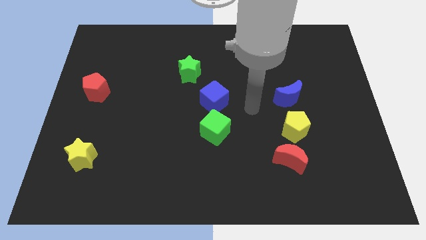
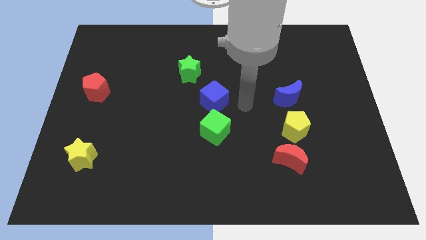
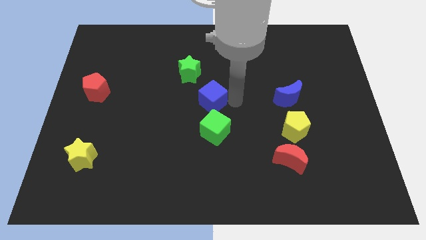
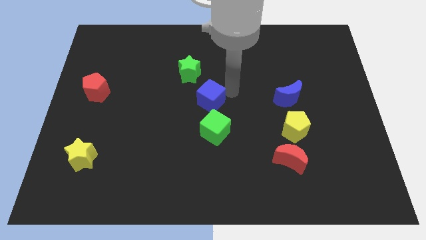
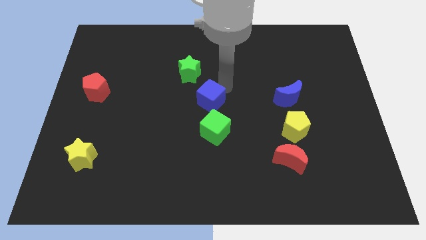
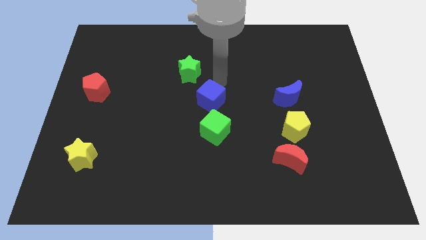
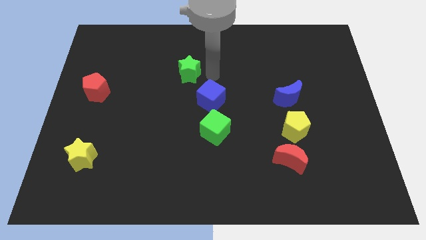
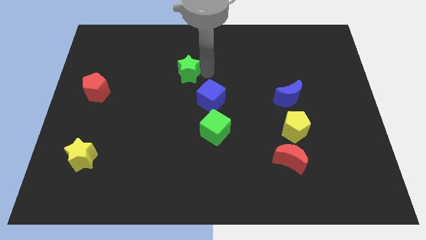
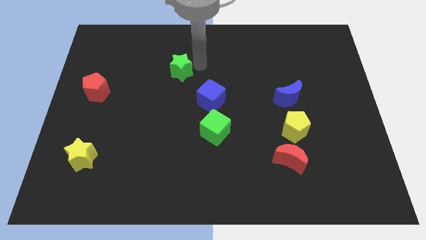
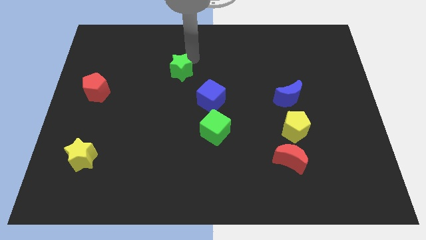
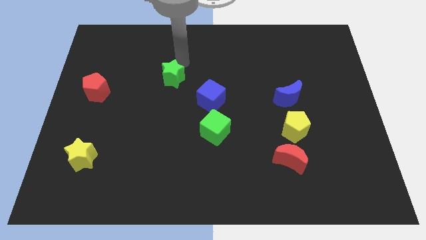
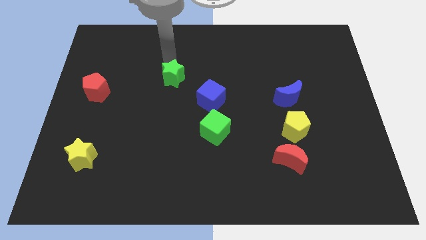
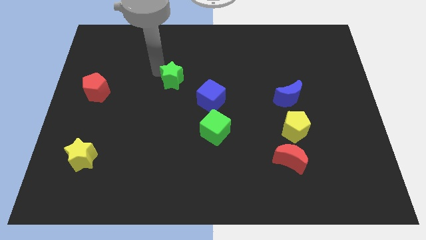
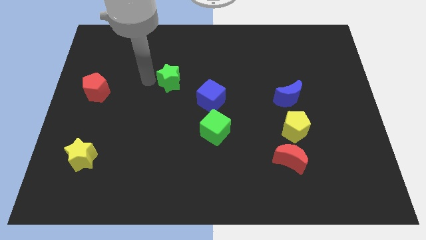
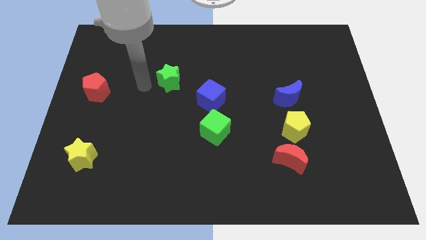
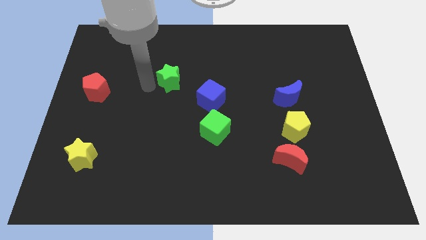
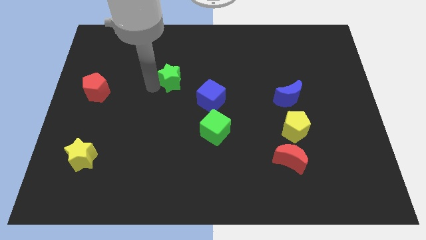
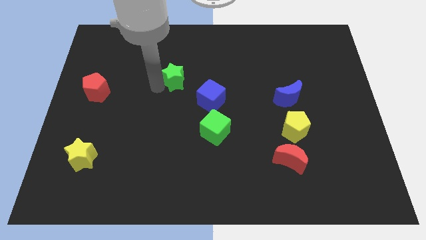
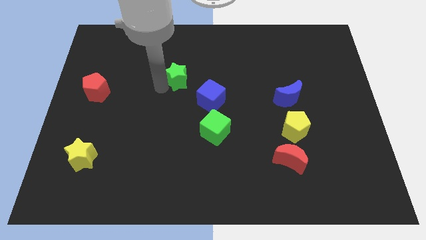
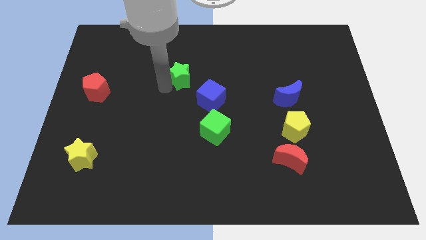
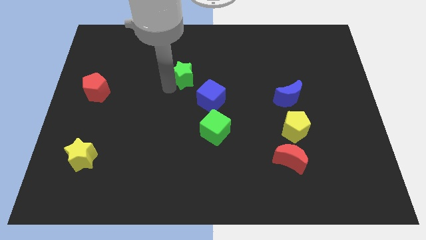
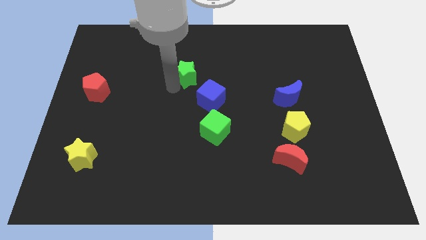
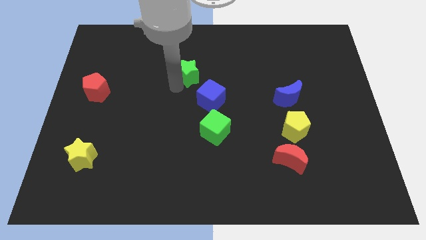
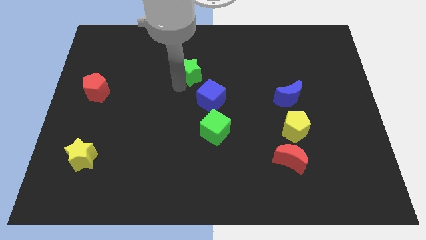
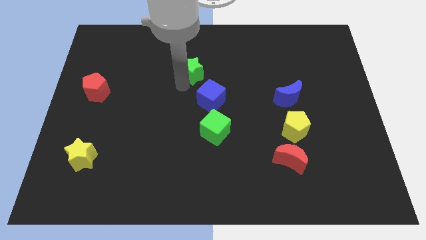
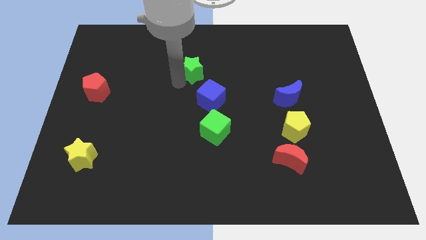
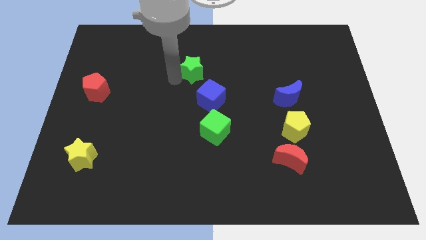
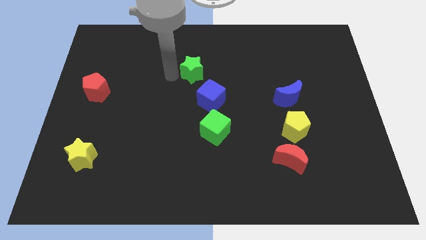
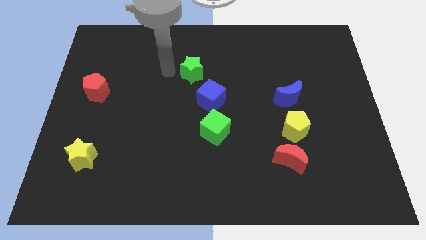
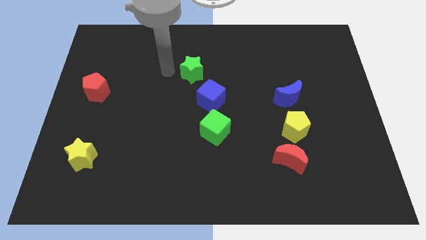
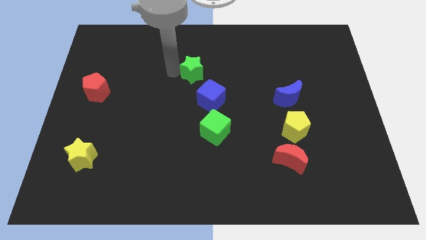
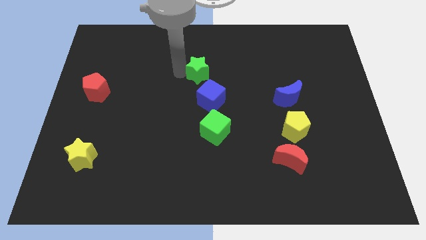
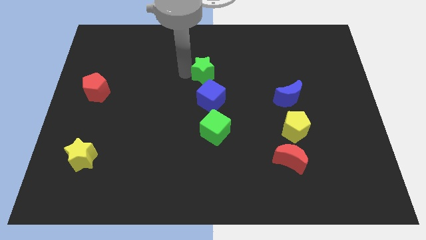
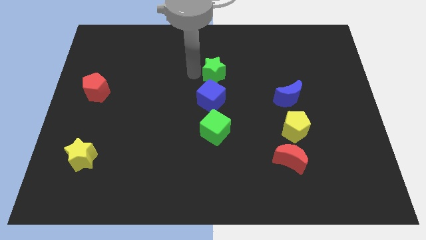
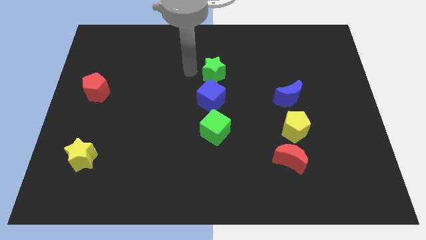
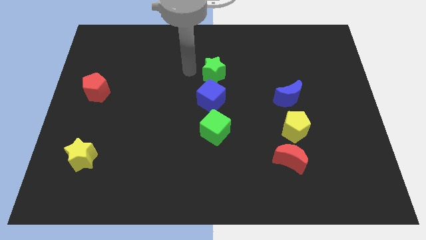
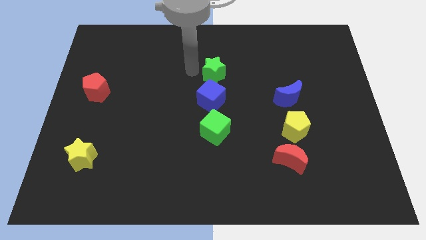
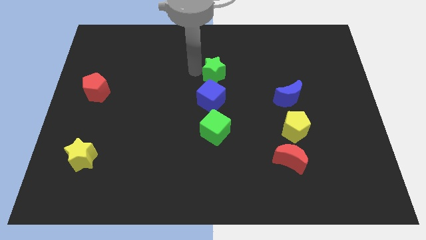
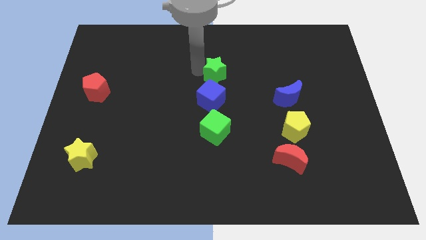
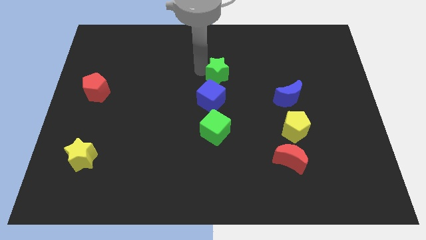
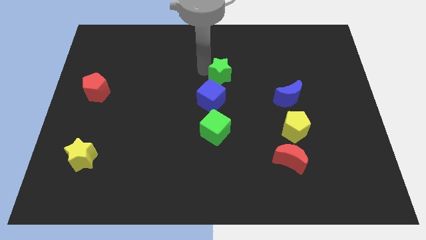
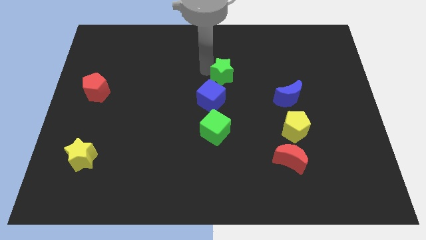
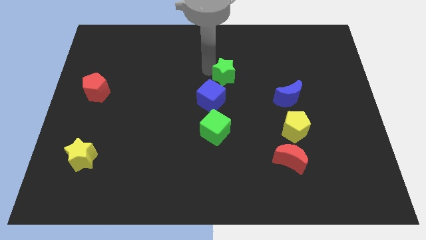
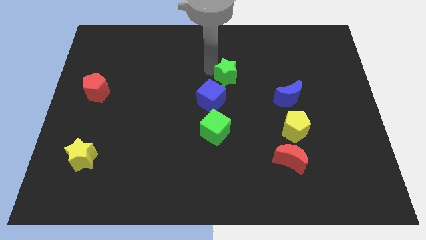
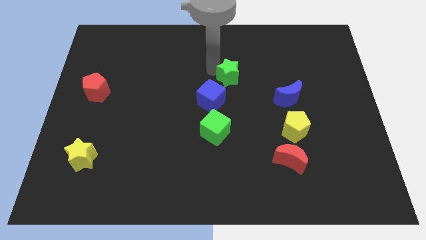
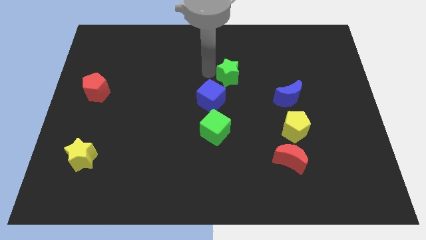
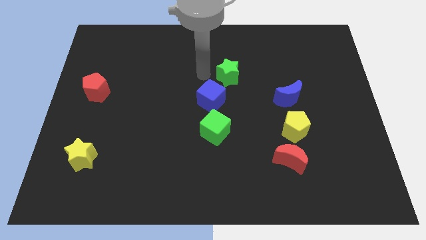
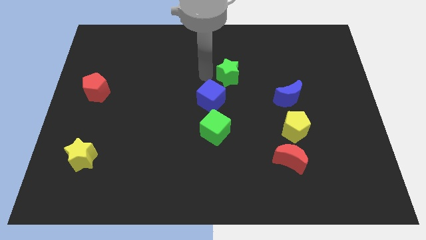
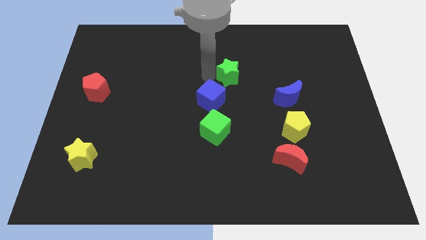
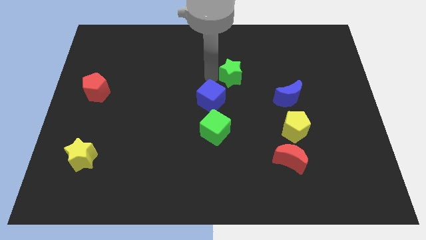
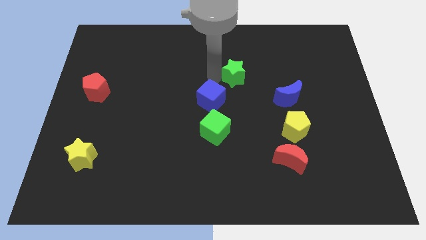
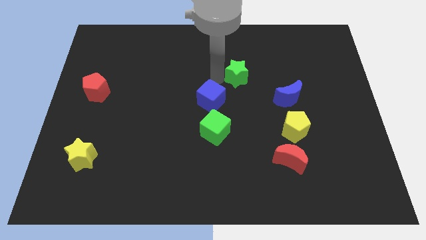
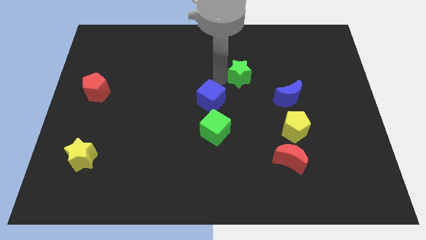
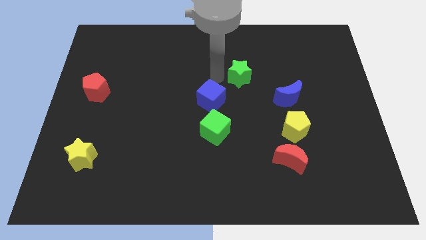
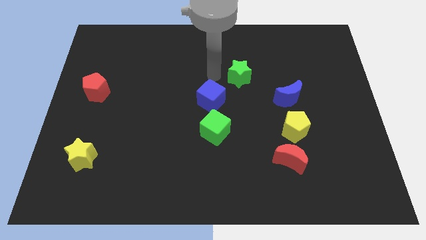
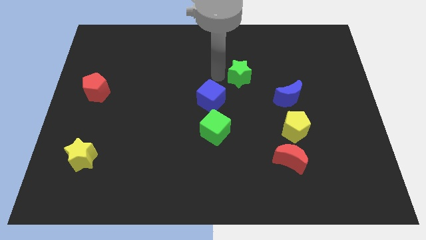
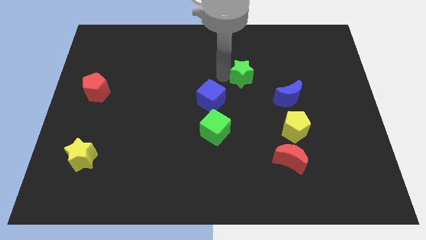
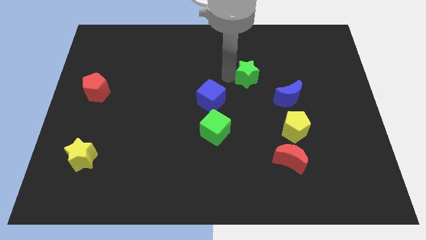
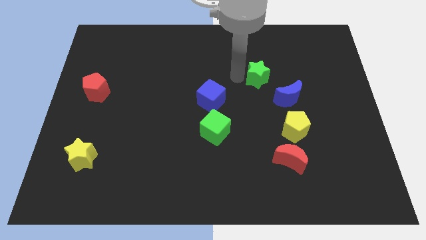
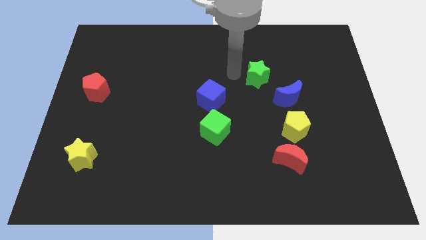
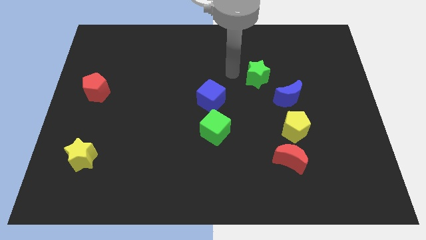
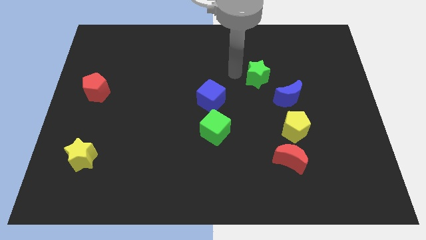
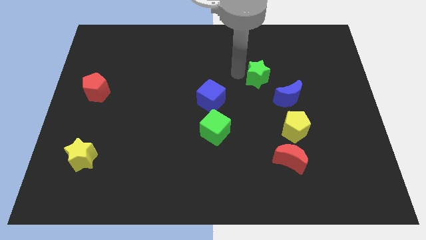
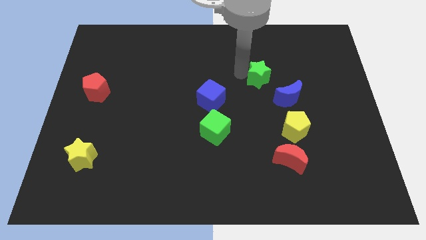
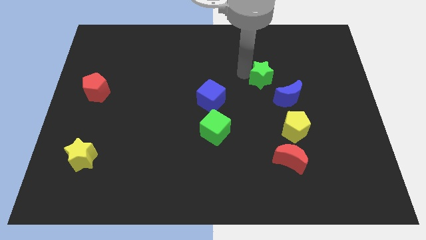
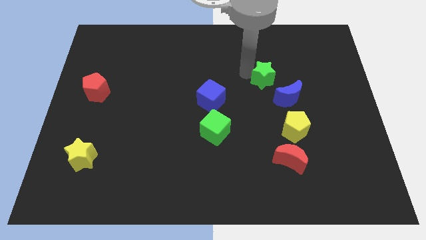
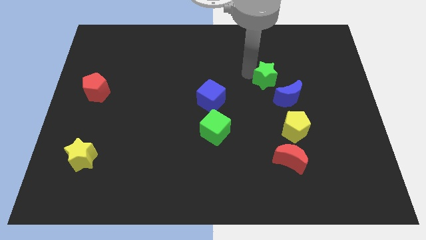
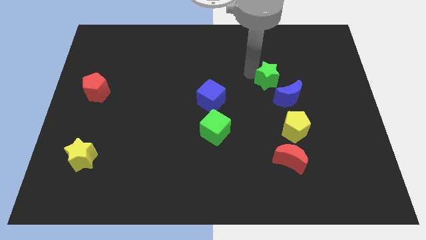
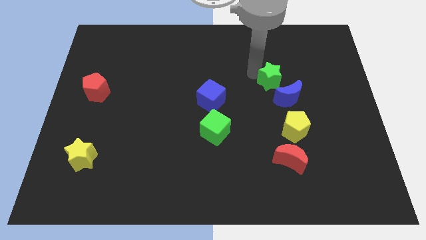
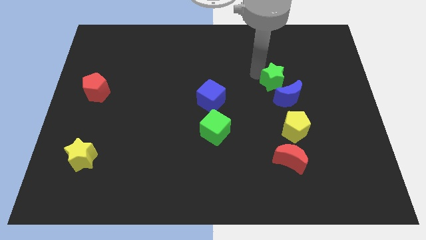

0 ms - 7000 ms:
slide the green star to the top side of the yellow pentagon

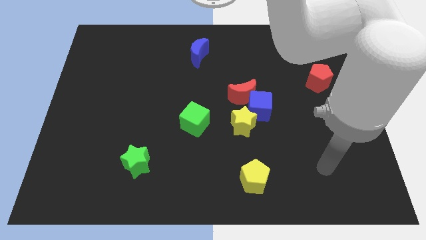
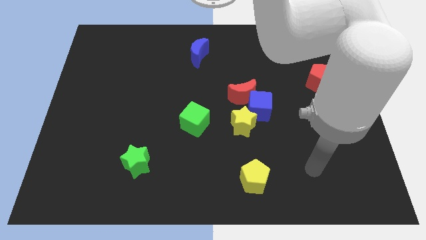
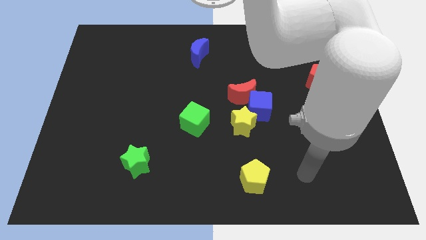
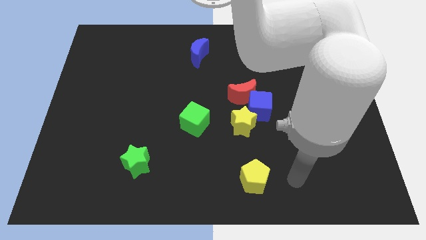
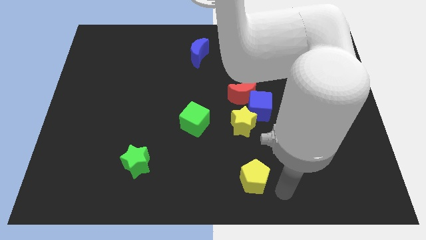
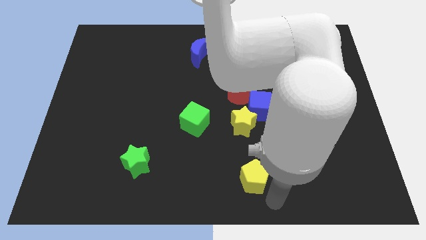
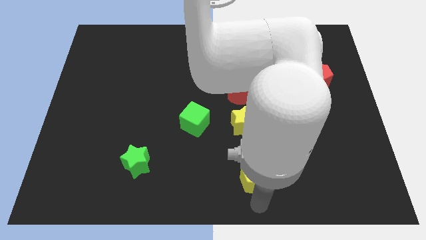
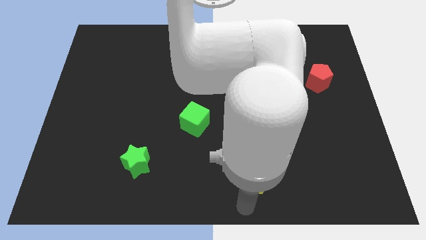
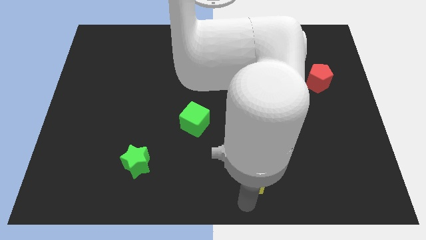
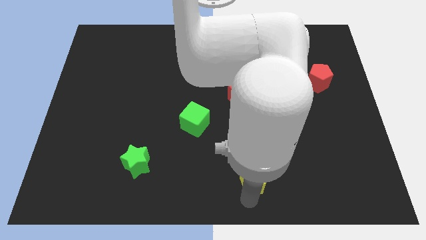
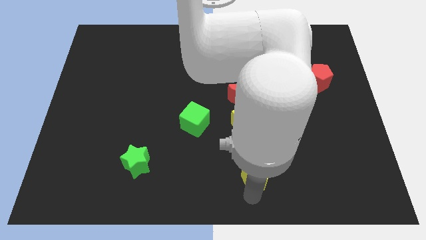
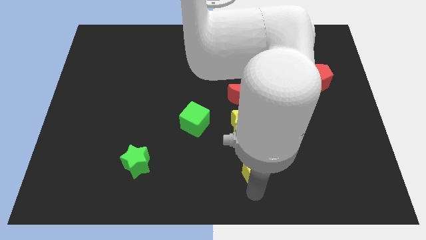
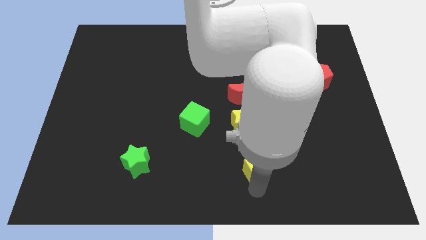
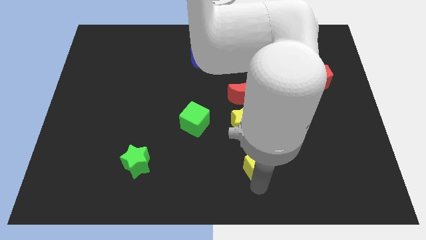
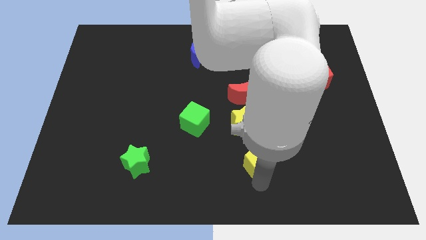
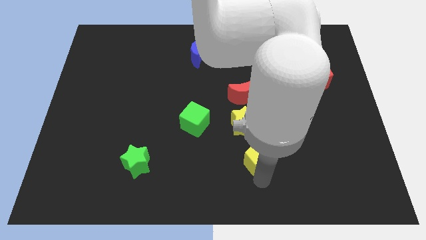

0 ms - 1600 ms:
move the yellow pentagon to the bottom right of the yellow star
